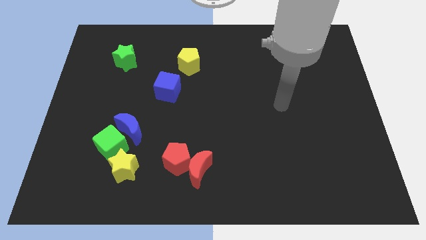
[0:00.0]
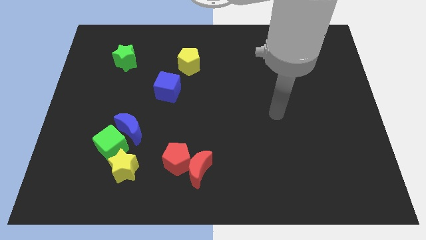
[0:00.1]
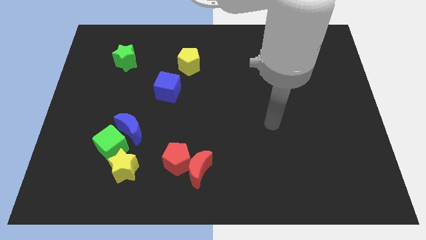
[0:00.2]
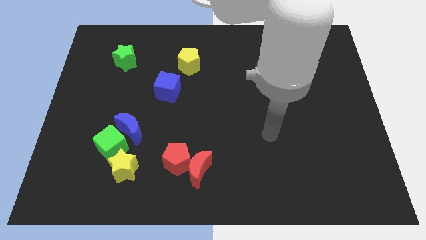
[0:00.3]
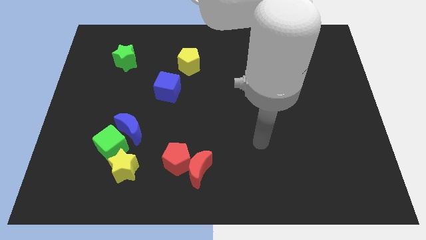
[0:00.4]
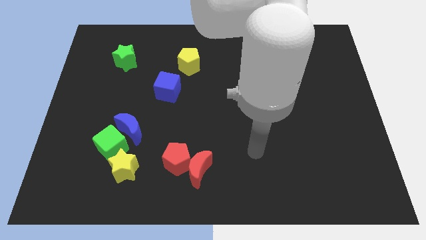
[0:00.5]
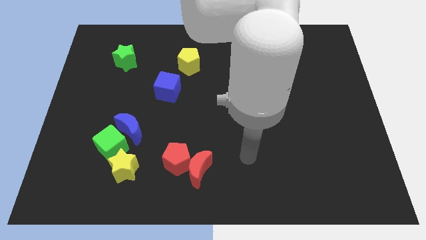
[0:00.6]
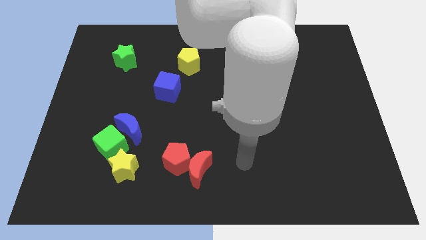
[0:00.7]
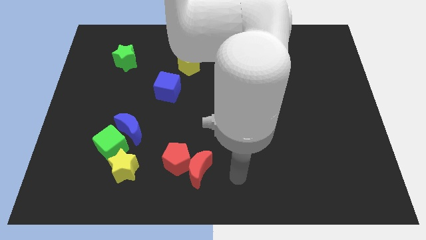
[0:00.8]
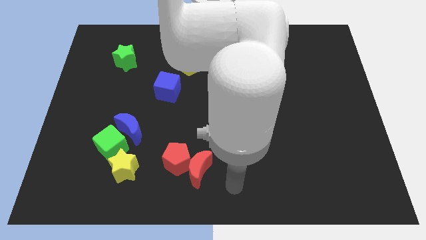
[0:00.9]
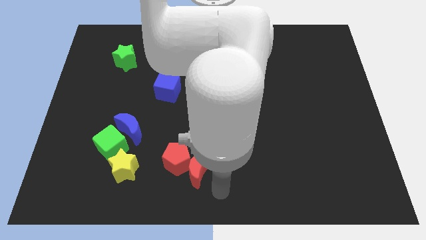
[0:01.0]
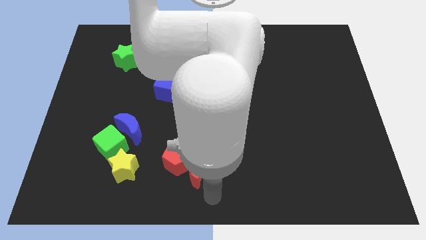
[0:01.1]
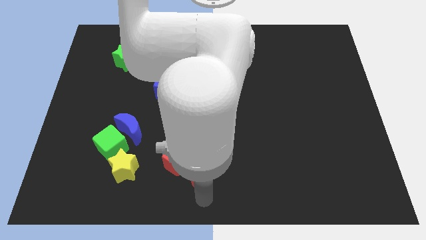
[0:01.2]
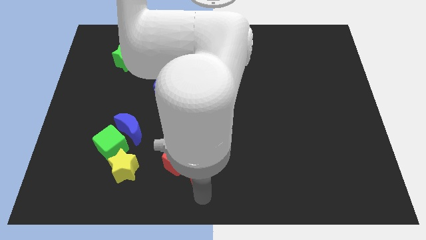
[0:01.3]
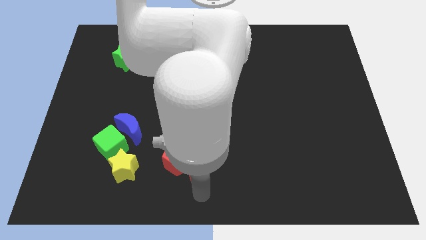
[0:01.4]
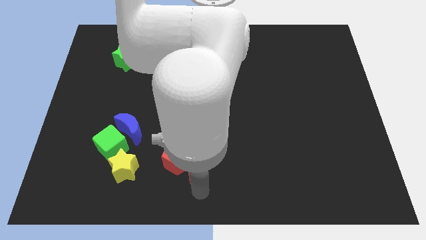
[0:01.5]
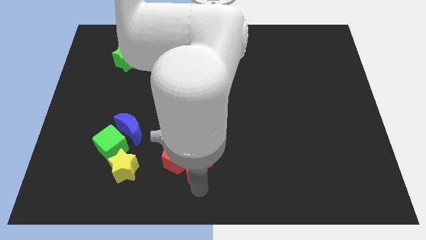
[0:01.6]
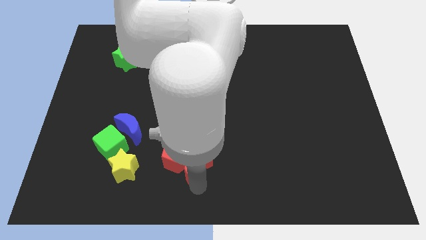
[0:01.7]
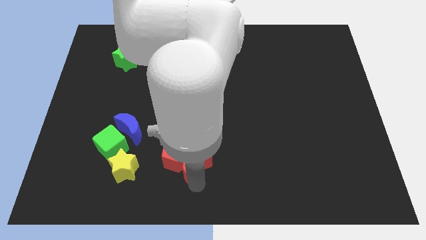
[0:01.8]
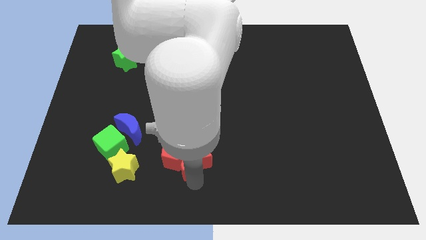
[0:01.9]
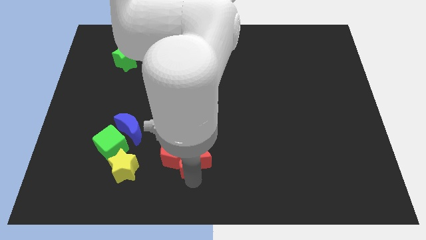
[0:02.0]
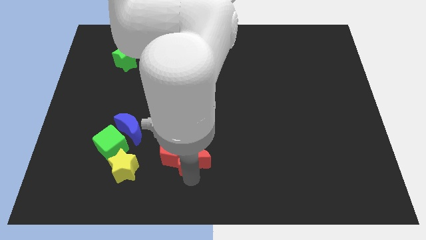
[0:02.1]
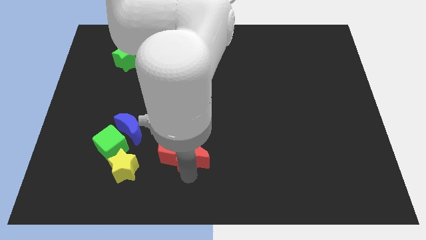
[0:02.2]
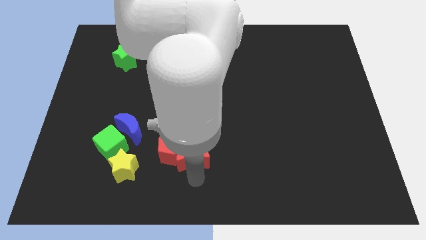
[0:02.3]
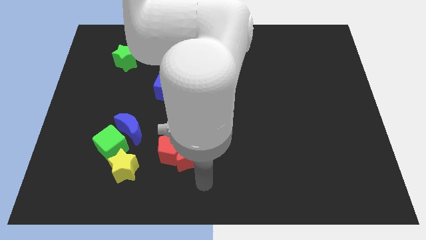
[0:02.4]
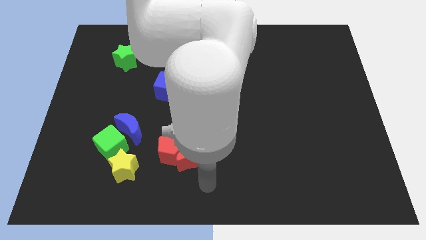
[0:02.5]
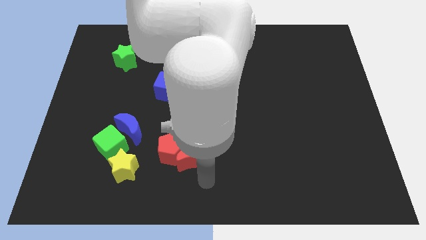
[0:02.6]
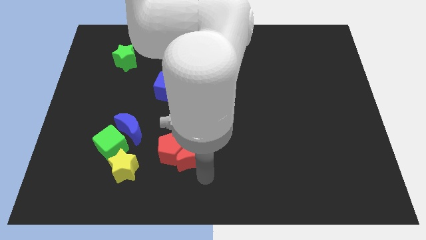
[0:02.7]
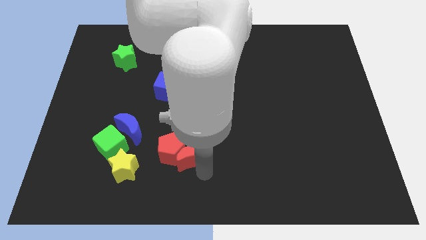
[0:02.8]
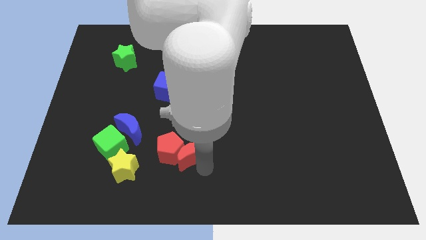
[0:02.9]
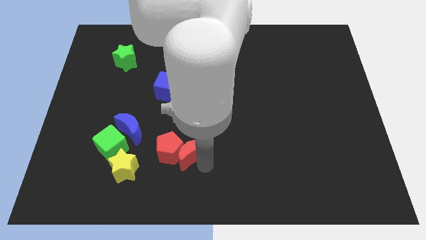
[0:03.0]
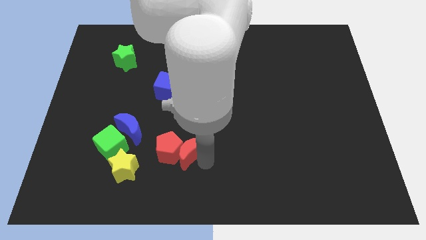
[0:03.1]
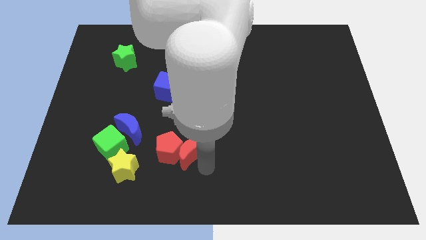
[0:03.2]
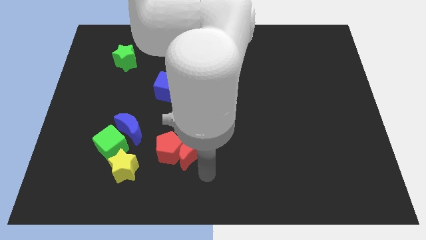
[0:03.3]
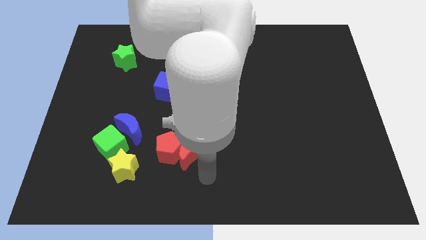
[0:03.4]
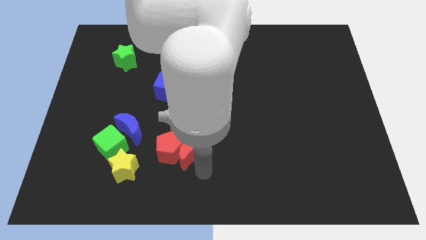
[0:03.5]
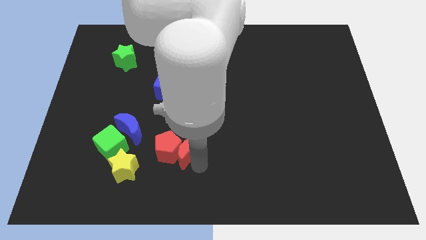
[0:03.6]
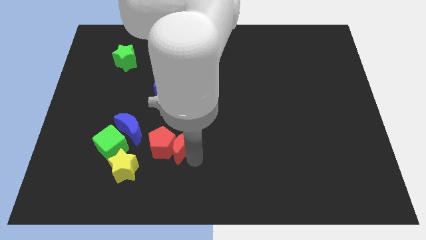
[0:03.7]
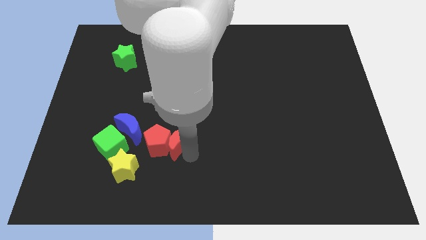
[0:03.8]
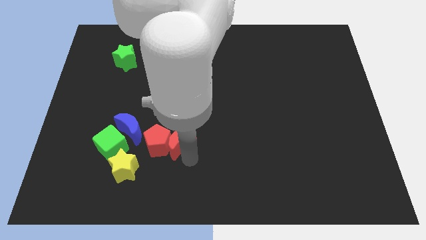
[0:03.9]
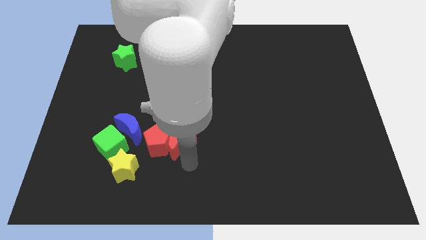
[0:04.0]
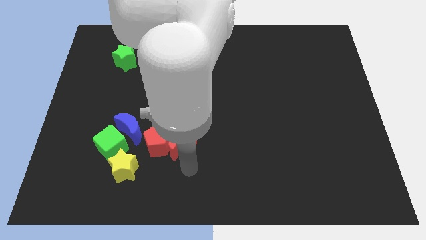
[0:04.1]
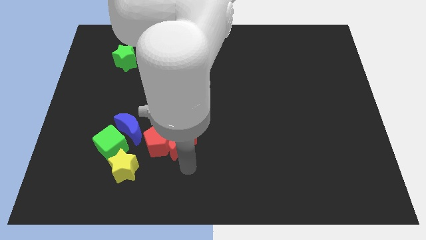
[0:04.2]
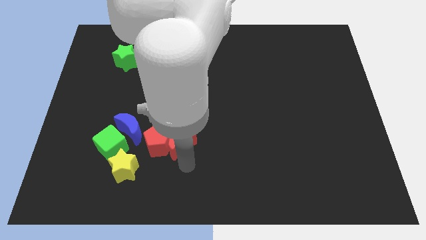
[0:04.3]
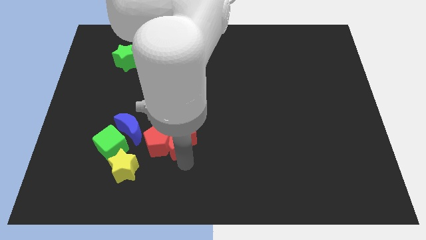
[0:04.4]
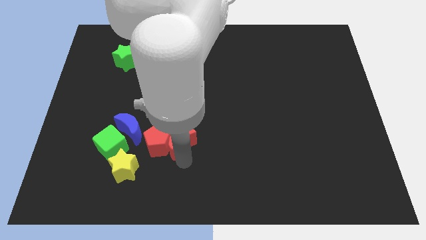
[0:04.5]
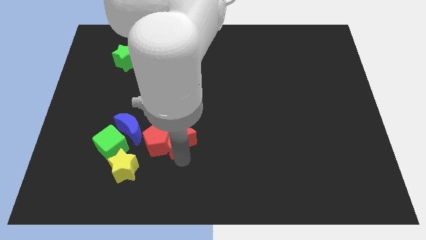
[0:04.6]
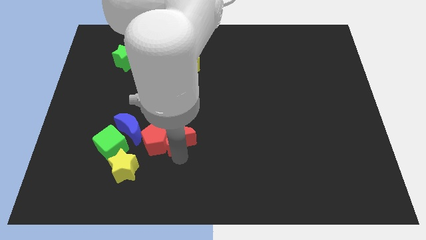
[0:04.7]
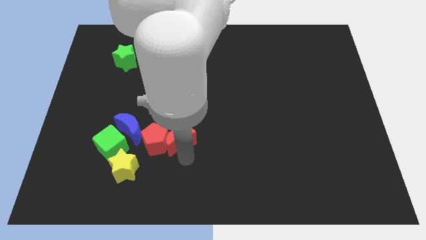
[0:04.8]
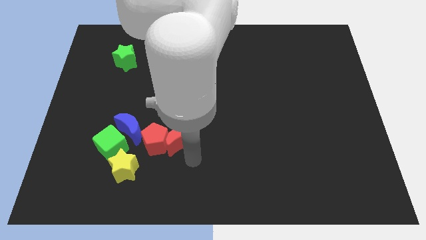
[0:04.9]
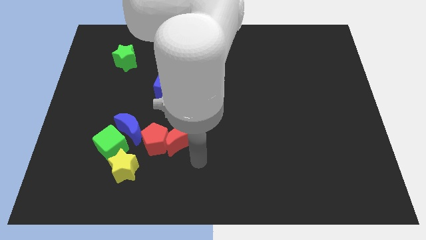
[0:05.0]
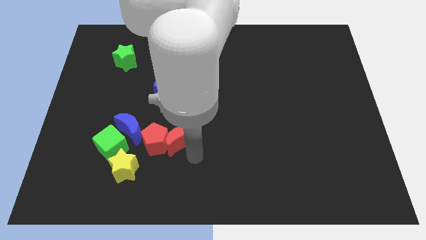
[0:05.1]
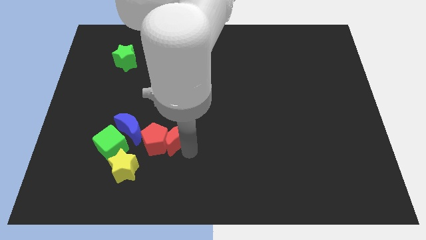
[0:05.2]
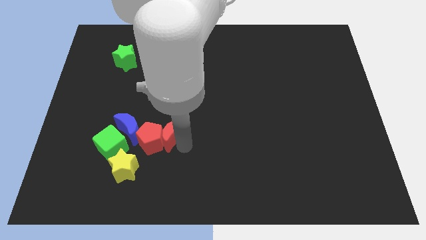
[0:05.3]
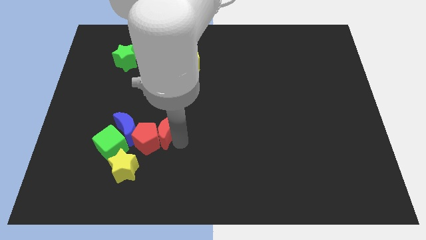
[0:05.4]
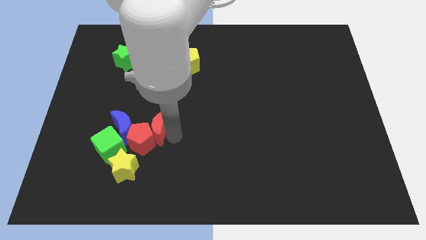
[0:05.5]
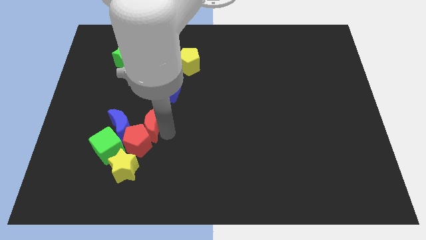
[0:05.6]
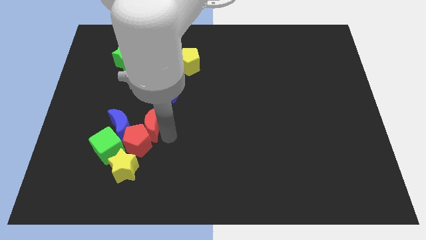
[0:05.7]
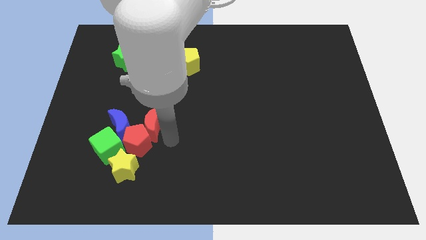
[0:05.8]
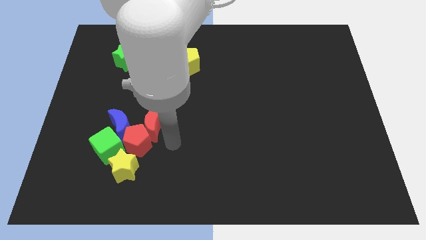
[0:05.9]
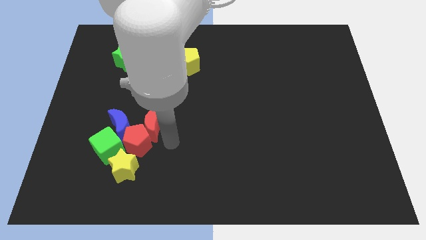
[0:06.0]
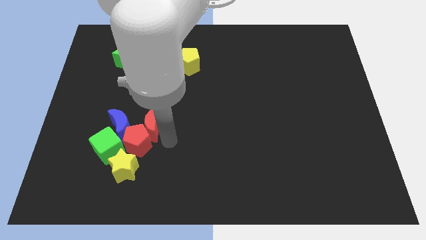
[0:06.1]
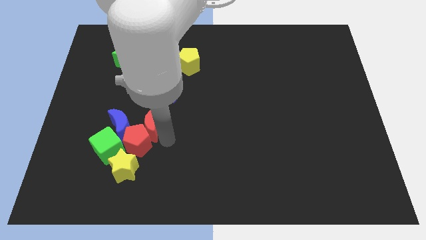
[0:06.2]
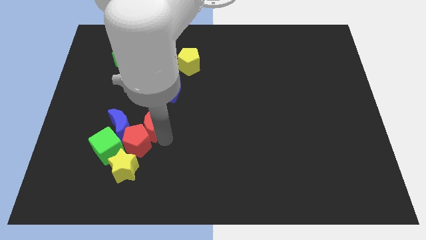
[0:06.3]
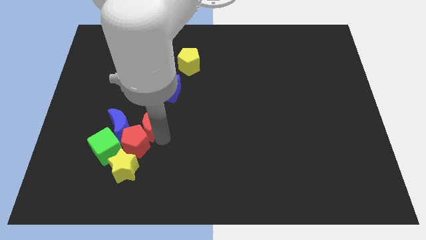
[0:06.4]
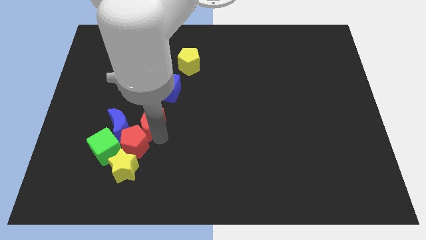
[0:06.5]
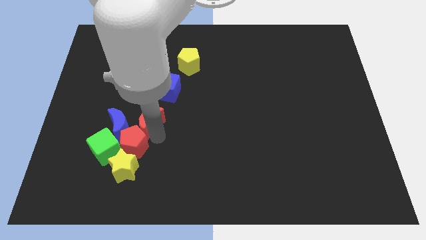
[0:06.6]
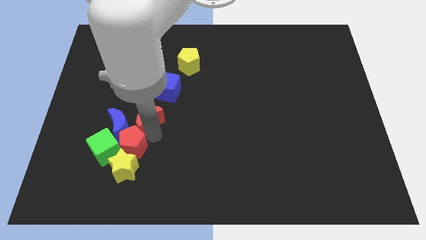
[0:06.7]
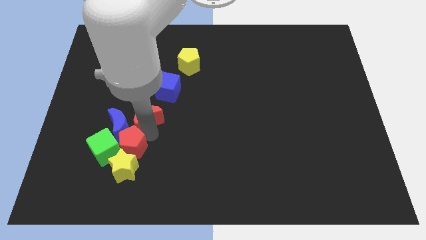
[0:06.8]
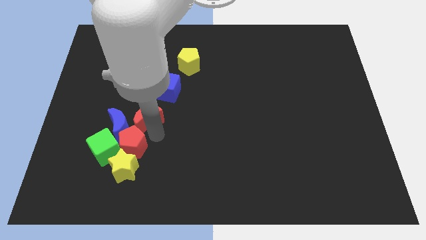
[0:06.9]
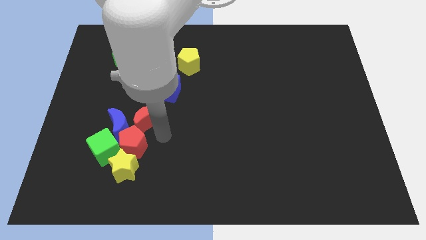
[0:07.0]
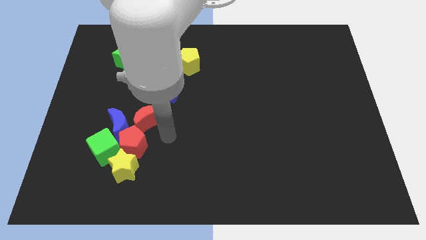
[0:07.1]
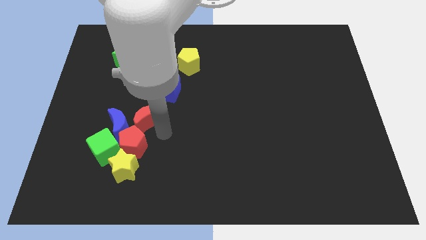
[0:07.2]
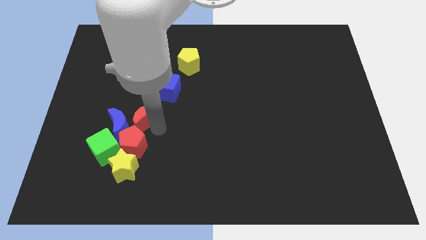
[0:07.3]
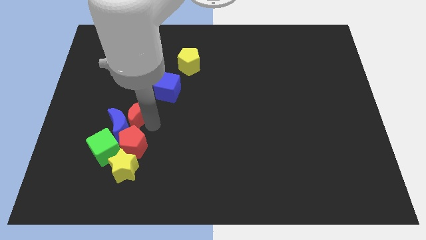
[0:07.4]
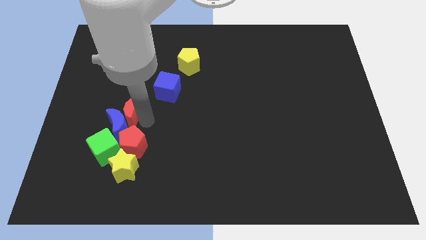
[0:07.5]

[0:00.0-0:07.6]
move the red moon up and to the left diagonally

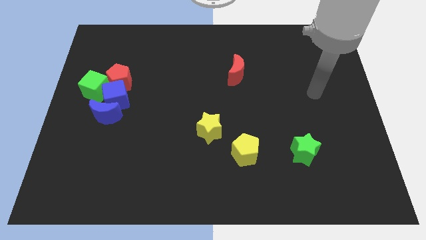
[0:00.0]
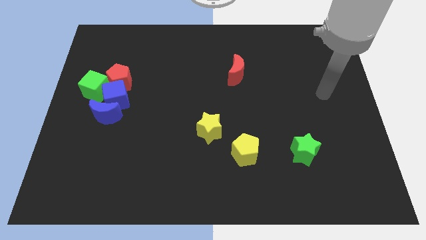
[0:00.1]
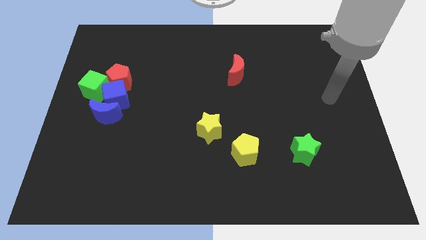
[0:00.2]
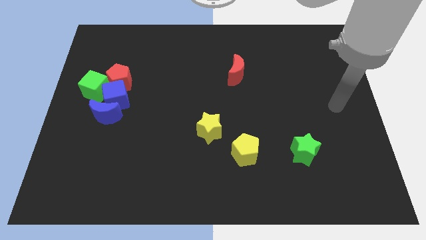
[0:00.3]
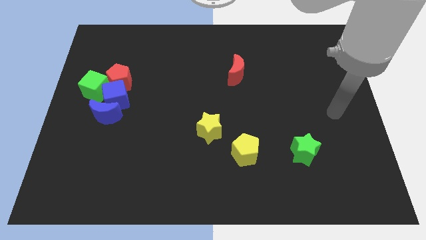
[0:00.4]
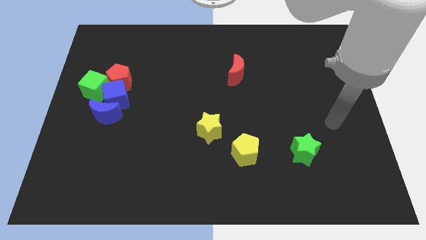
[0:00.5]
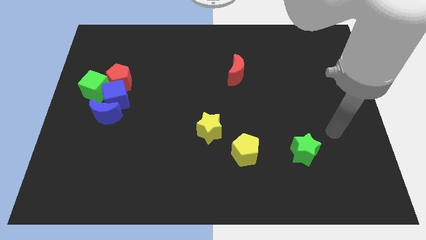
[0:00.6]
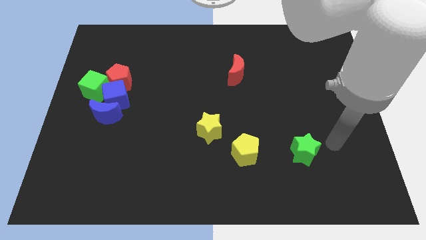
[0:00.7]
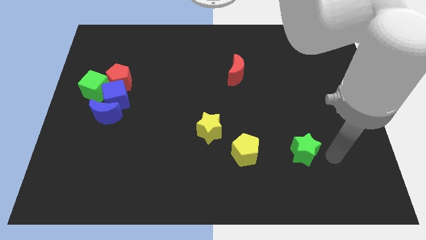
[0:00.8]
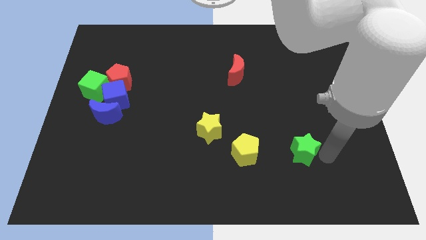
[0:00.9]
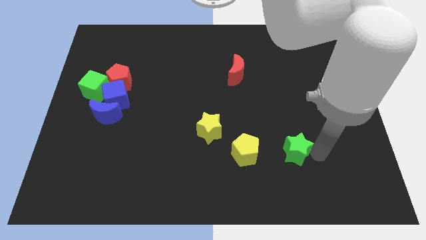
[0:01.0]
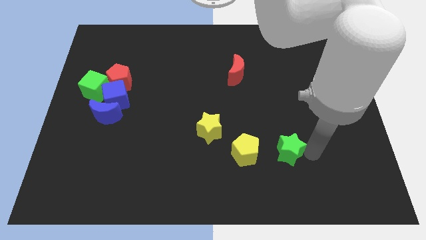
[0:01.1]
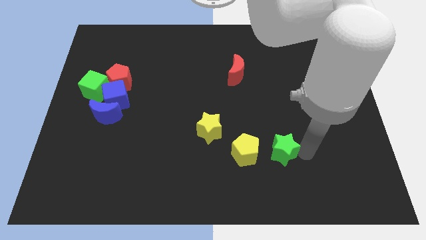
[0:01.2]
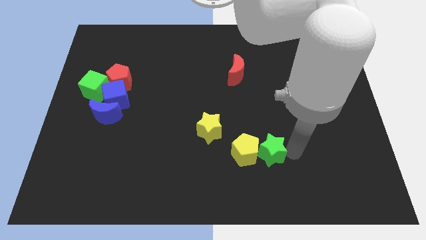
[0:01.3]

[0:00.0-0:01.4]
push the green star left somewhat
